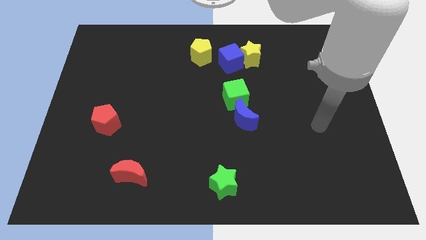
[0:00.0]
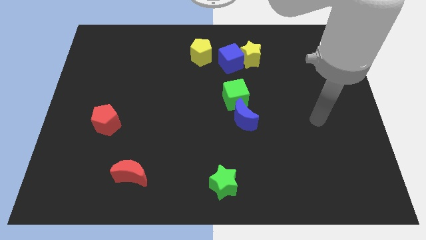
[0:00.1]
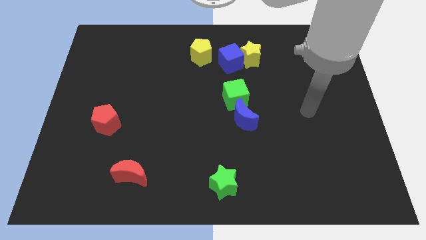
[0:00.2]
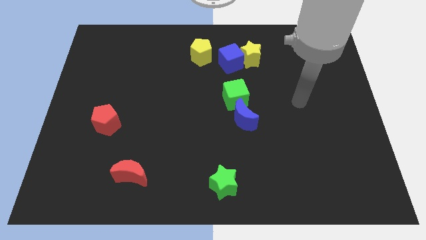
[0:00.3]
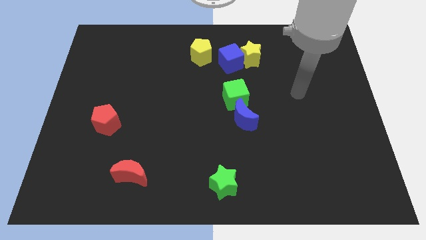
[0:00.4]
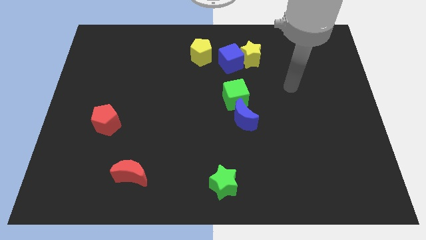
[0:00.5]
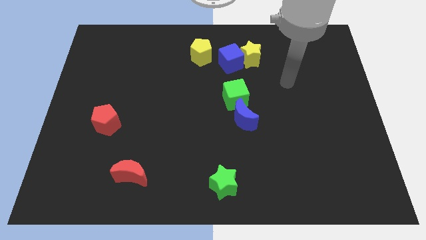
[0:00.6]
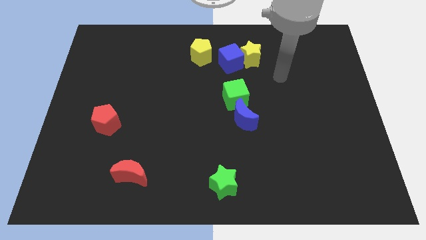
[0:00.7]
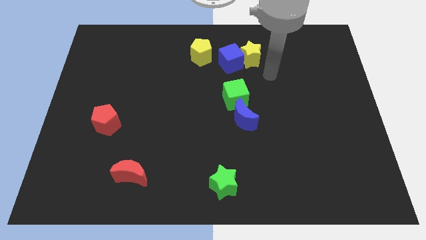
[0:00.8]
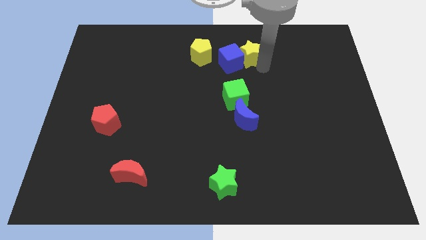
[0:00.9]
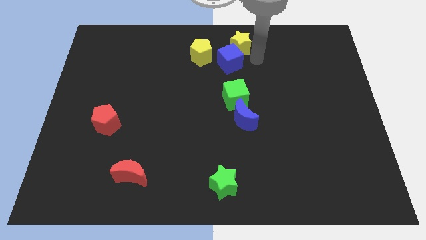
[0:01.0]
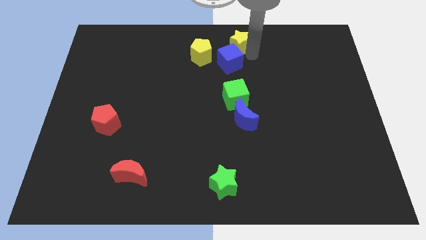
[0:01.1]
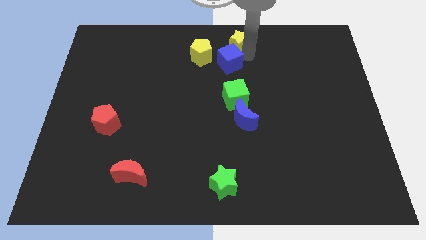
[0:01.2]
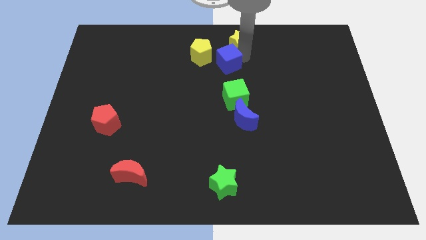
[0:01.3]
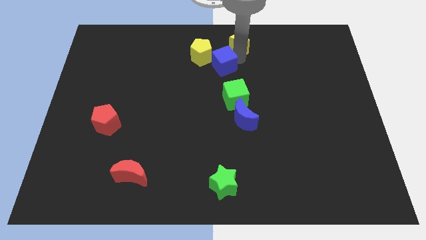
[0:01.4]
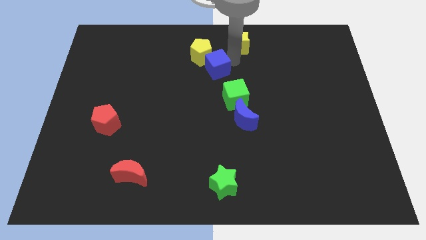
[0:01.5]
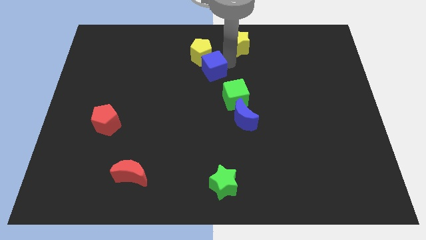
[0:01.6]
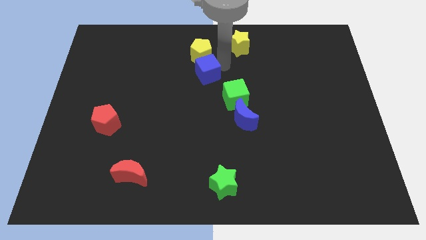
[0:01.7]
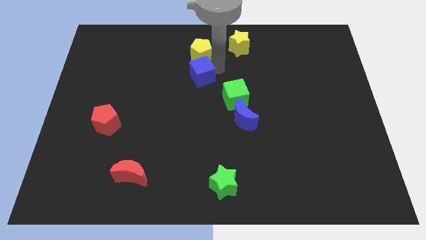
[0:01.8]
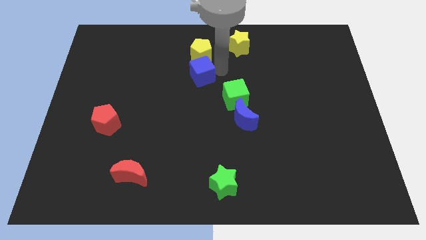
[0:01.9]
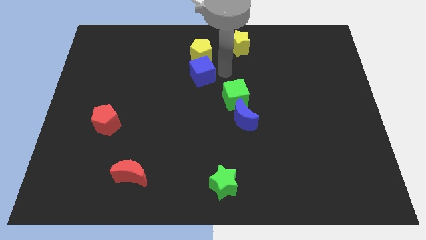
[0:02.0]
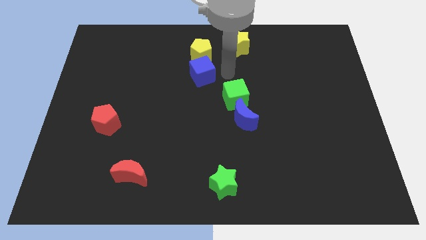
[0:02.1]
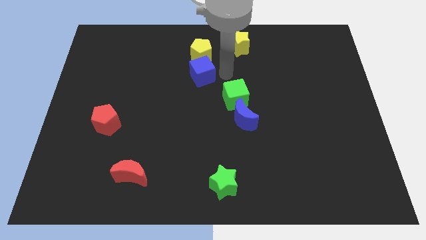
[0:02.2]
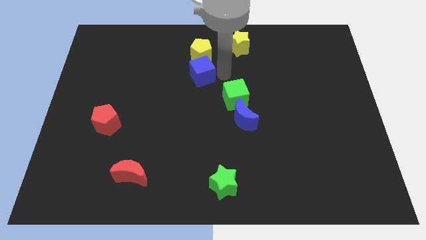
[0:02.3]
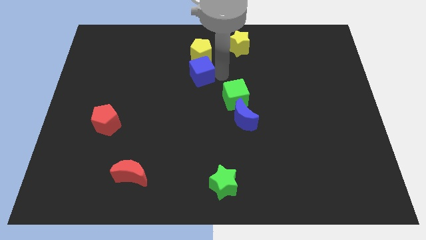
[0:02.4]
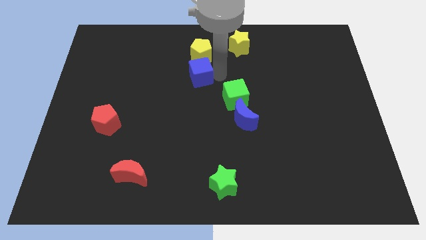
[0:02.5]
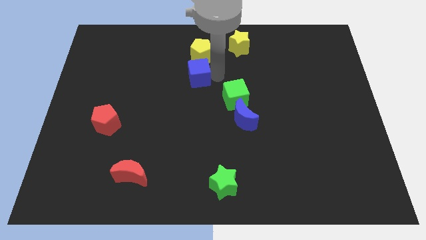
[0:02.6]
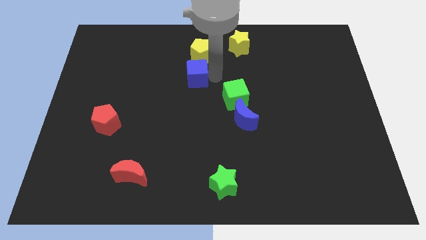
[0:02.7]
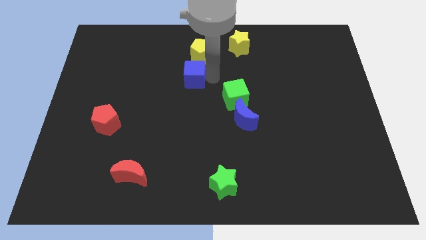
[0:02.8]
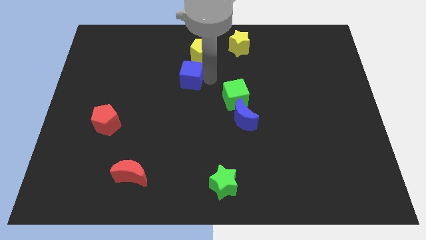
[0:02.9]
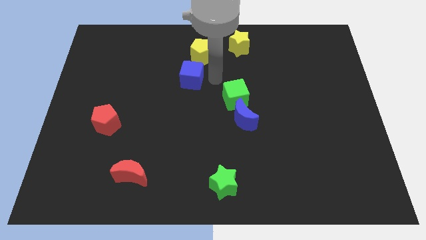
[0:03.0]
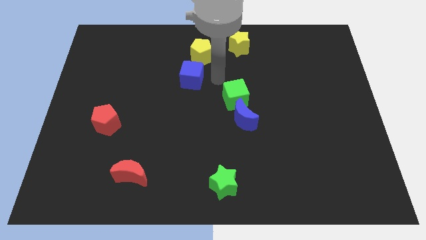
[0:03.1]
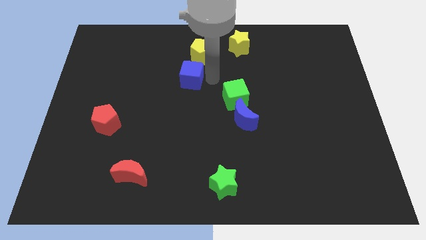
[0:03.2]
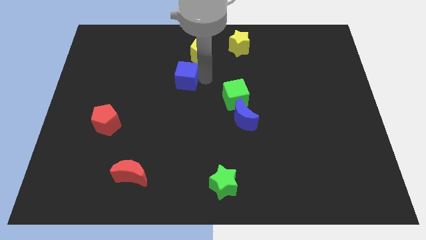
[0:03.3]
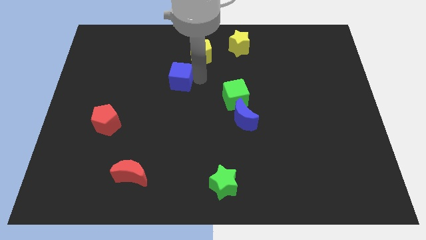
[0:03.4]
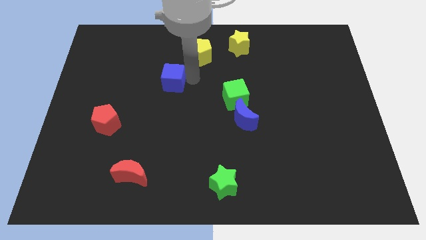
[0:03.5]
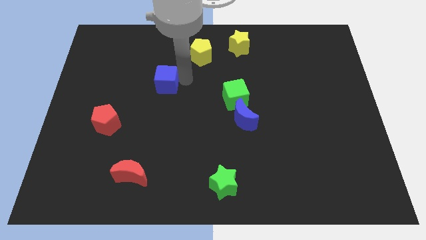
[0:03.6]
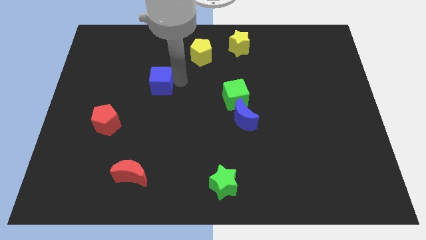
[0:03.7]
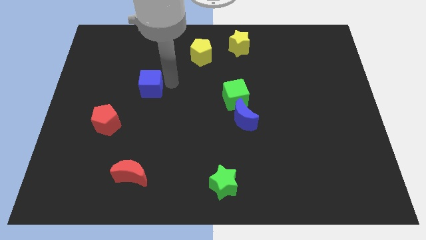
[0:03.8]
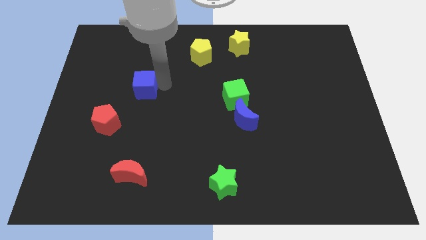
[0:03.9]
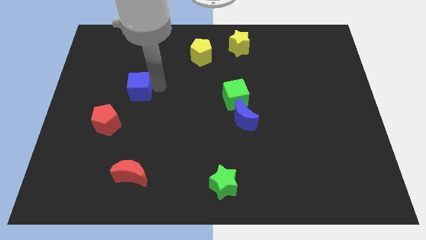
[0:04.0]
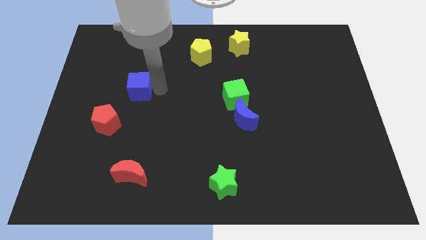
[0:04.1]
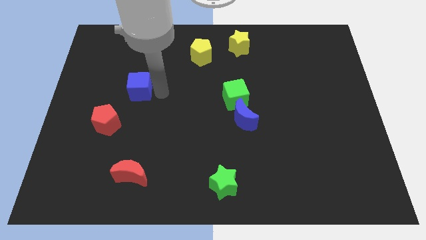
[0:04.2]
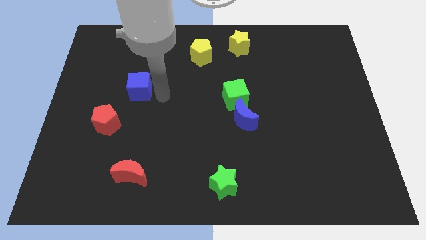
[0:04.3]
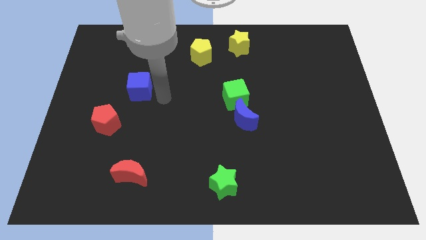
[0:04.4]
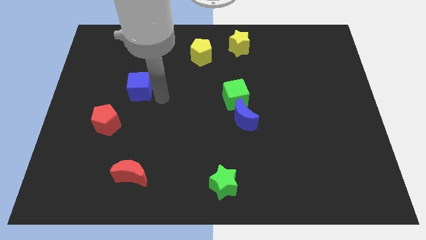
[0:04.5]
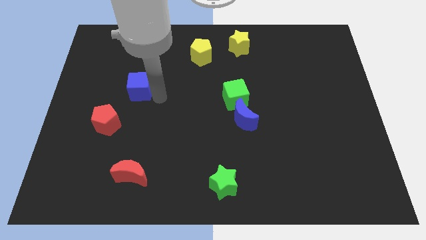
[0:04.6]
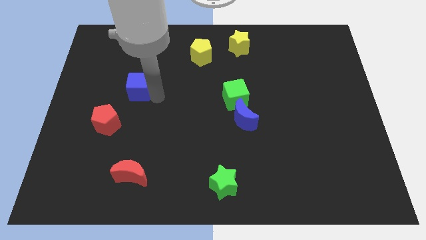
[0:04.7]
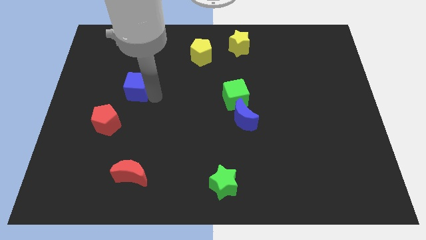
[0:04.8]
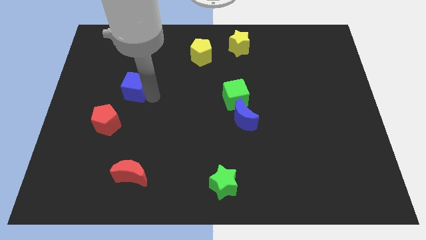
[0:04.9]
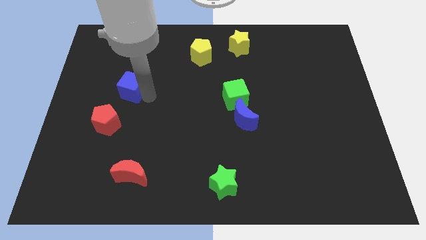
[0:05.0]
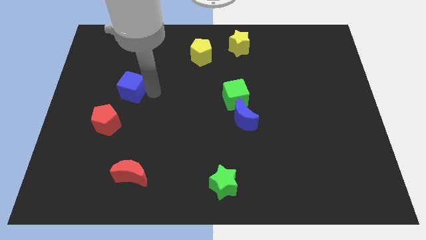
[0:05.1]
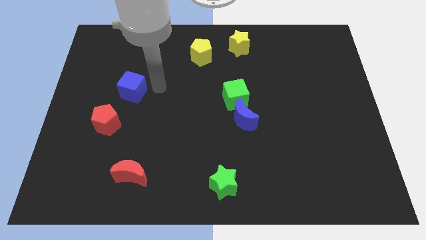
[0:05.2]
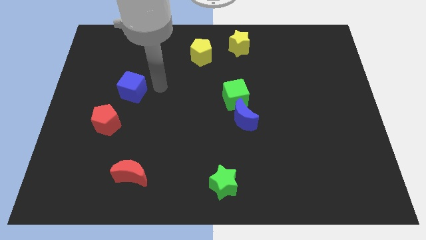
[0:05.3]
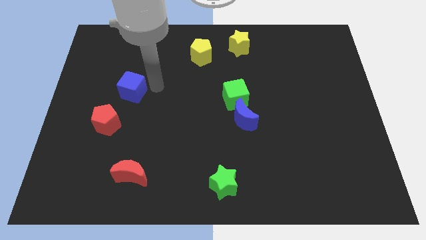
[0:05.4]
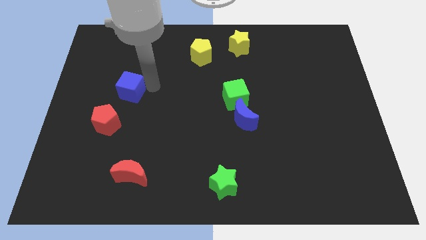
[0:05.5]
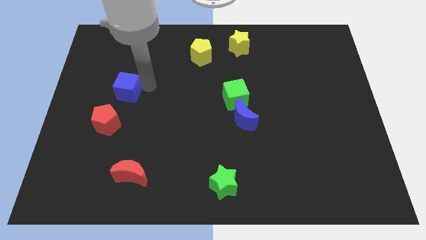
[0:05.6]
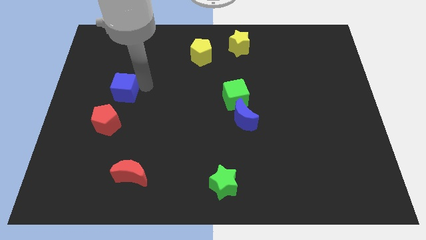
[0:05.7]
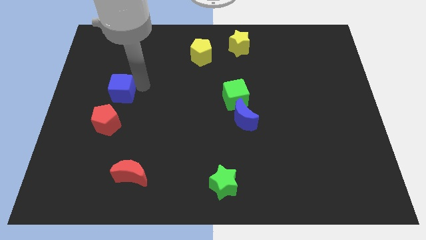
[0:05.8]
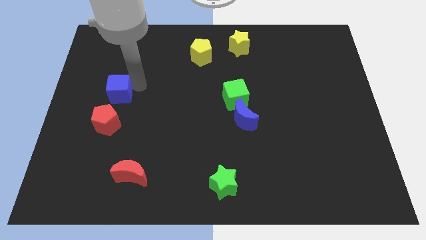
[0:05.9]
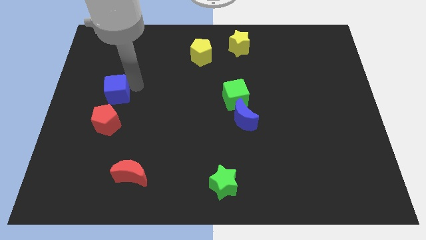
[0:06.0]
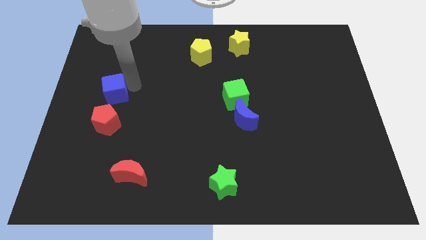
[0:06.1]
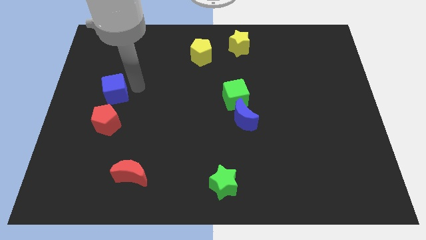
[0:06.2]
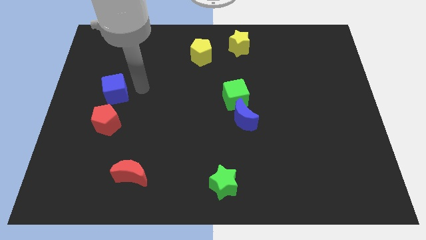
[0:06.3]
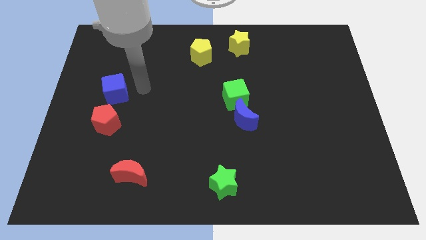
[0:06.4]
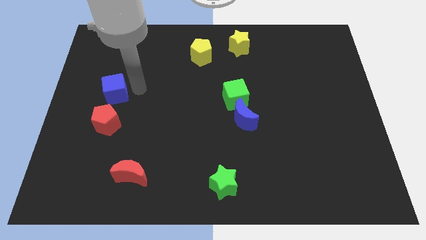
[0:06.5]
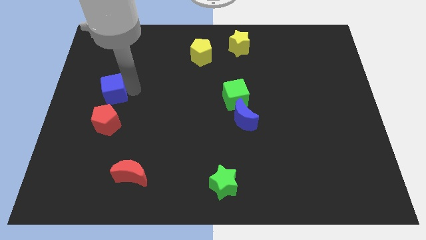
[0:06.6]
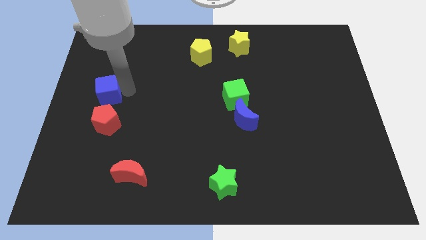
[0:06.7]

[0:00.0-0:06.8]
push the blue cube to the left side of the board
